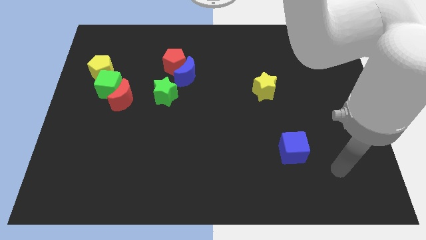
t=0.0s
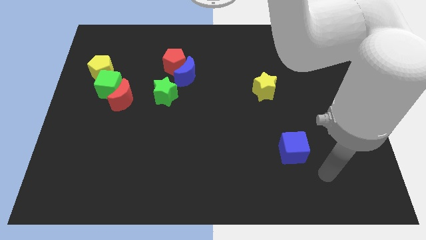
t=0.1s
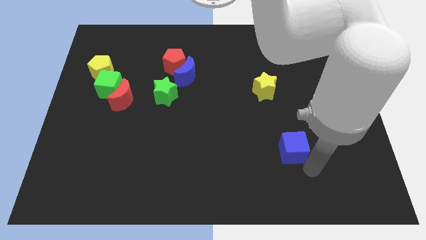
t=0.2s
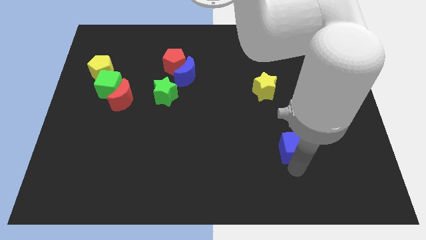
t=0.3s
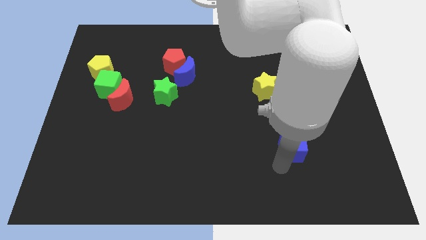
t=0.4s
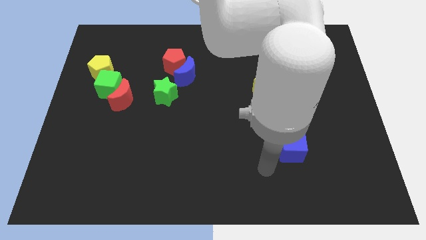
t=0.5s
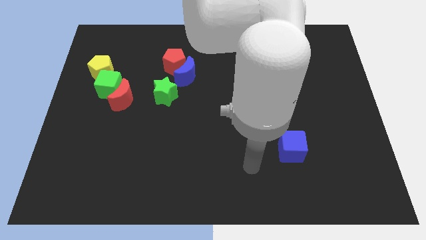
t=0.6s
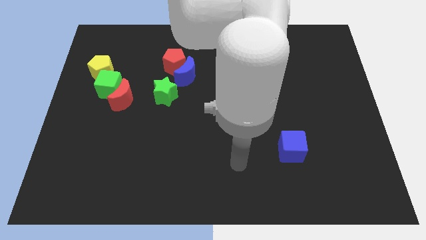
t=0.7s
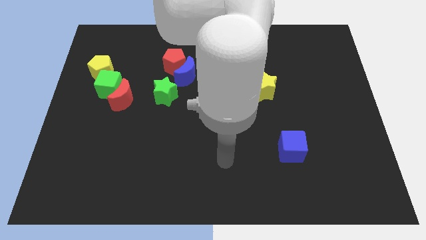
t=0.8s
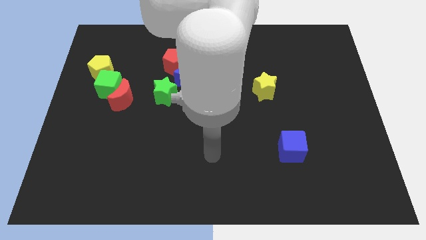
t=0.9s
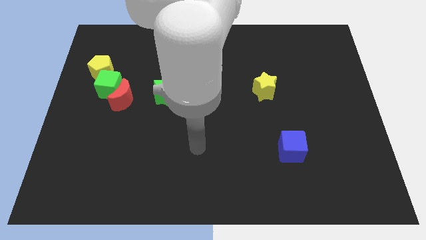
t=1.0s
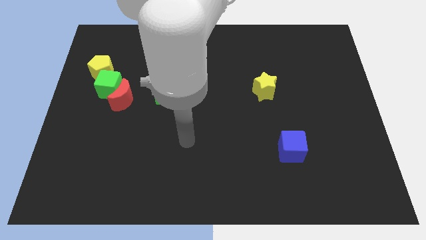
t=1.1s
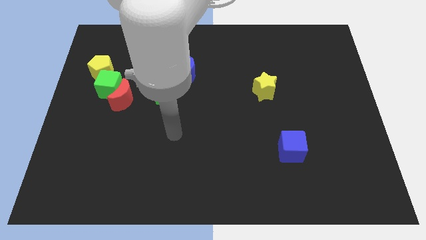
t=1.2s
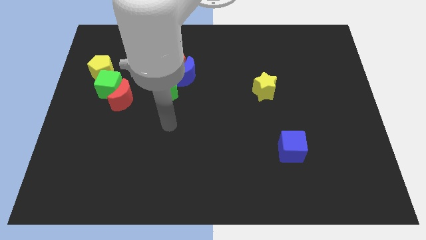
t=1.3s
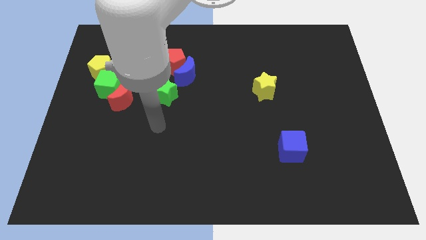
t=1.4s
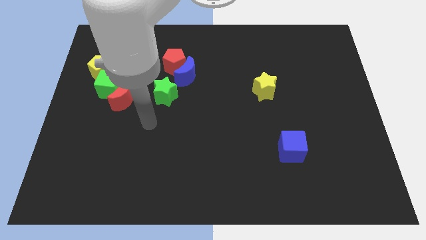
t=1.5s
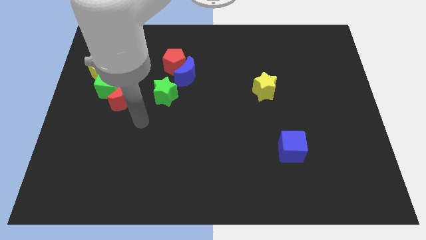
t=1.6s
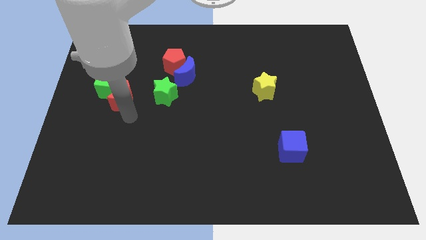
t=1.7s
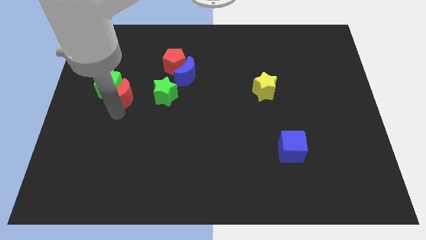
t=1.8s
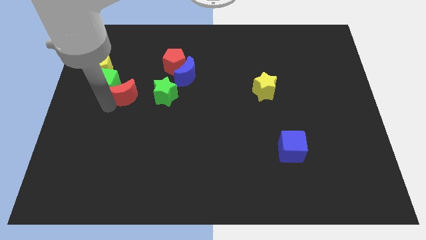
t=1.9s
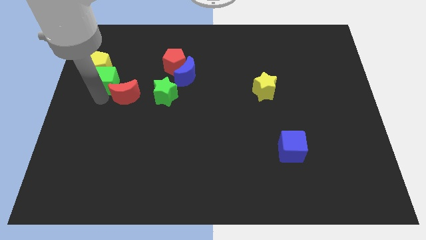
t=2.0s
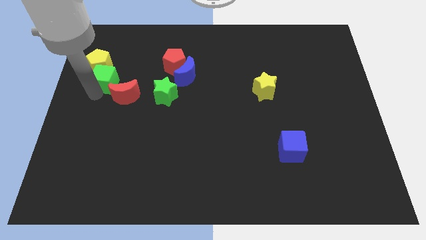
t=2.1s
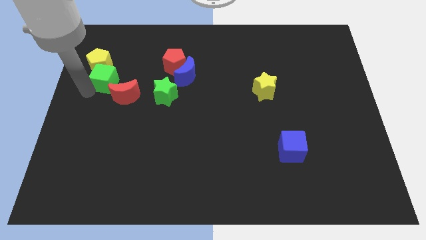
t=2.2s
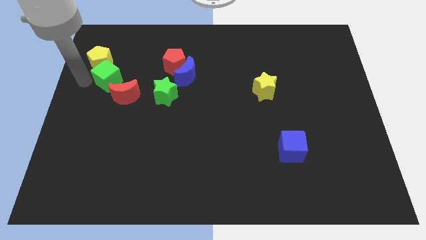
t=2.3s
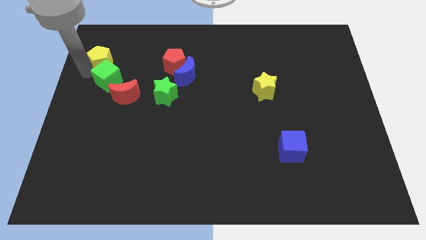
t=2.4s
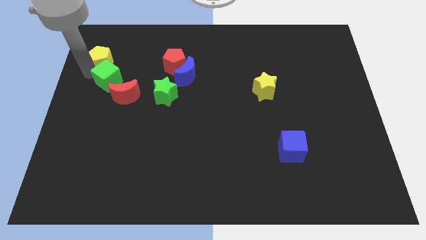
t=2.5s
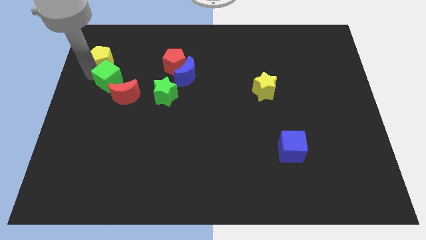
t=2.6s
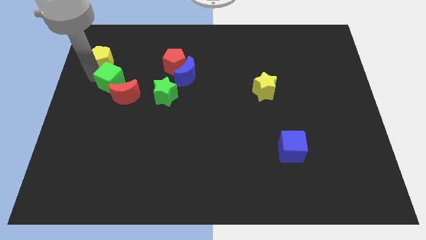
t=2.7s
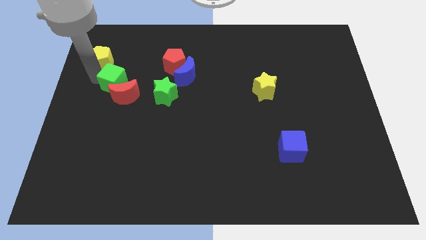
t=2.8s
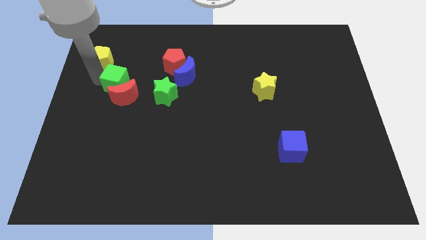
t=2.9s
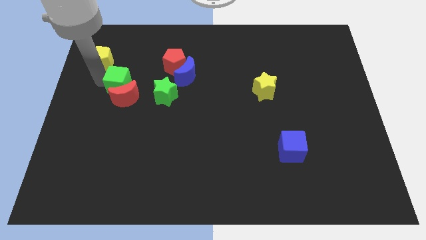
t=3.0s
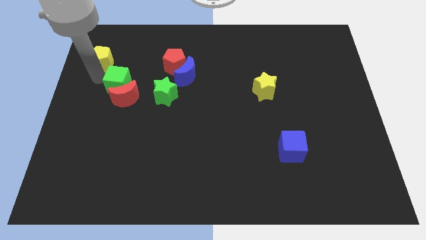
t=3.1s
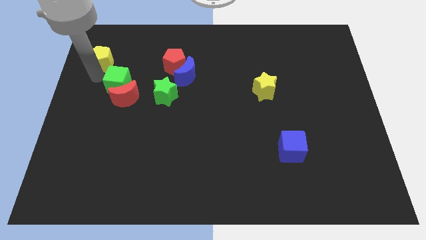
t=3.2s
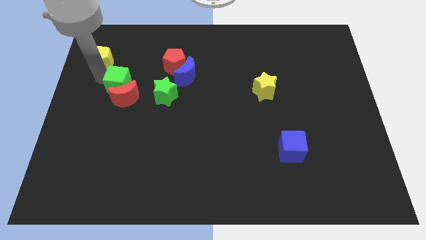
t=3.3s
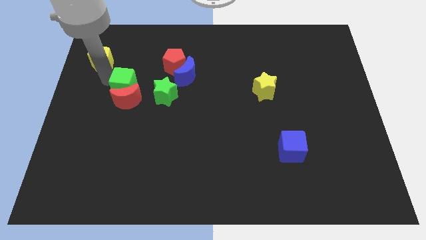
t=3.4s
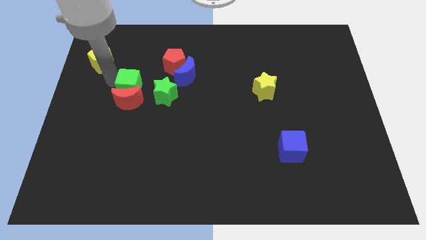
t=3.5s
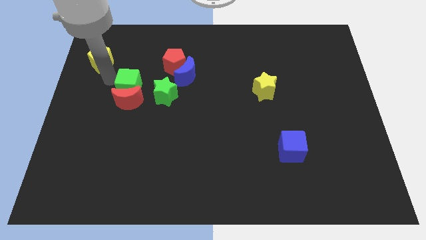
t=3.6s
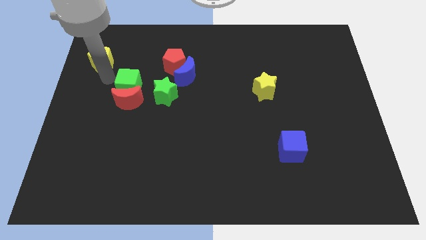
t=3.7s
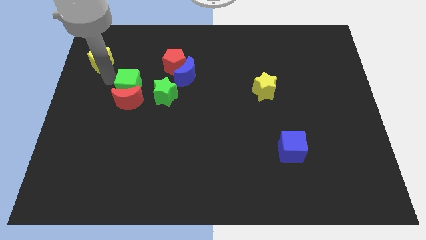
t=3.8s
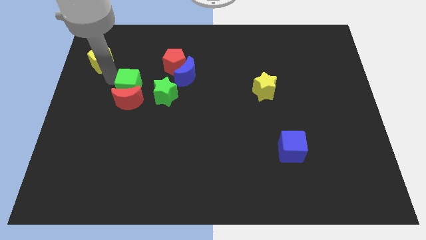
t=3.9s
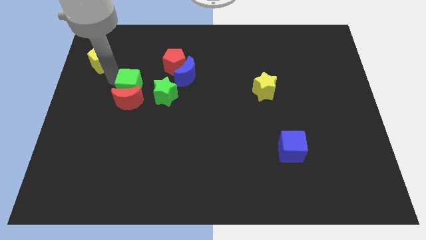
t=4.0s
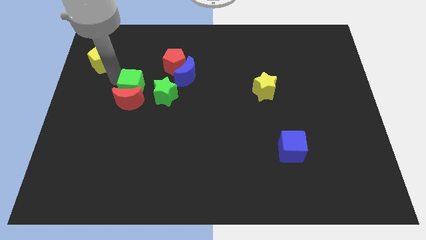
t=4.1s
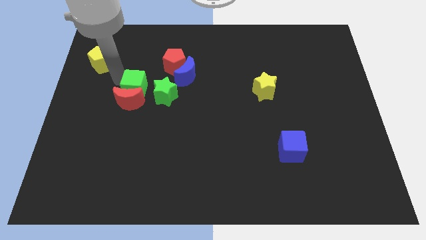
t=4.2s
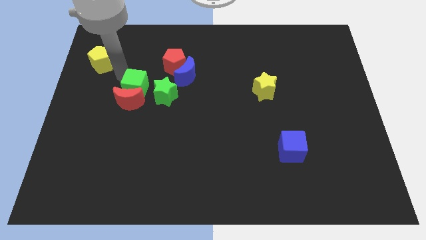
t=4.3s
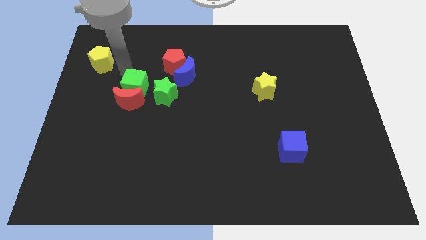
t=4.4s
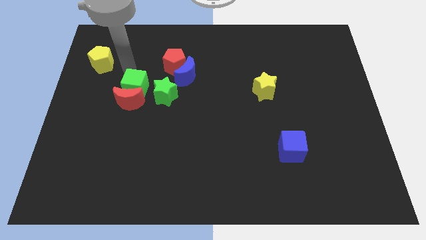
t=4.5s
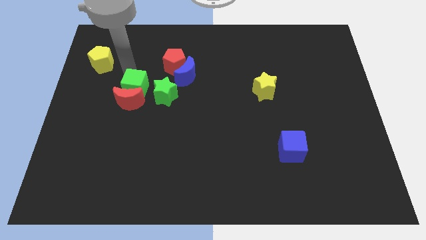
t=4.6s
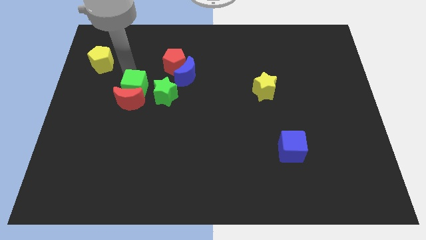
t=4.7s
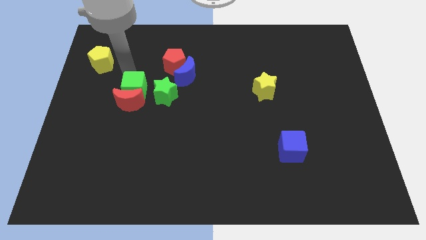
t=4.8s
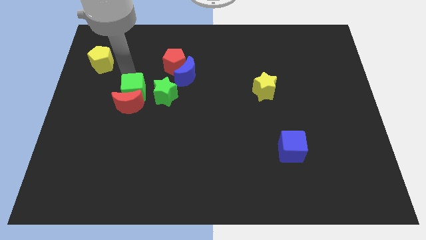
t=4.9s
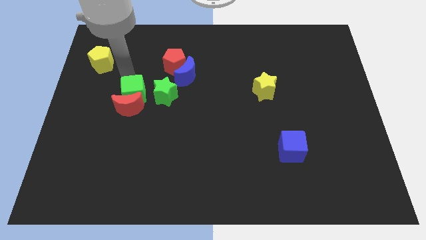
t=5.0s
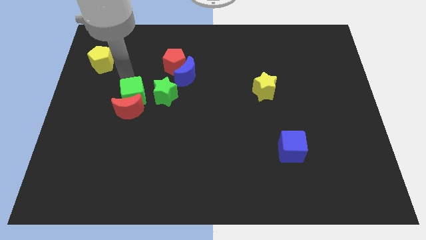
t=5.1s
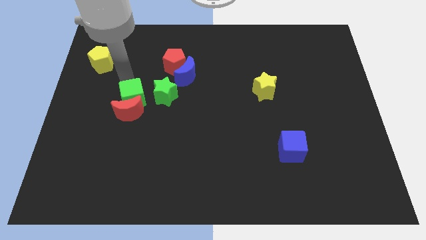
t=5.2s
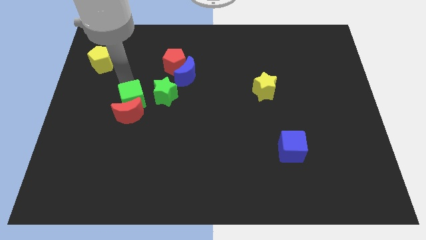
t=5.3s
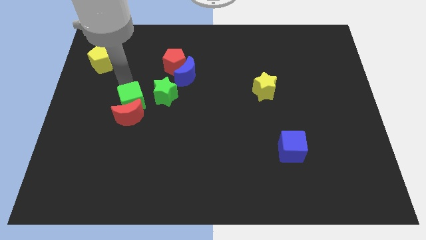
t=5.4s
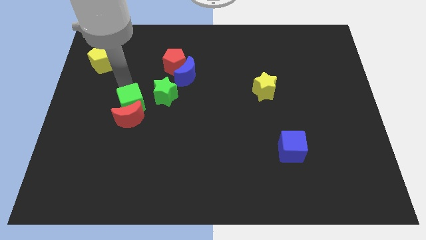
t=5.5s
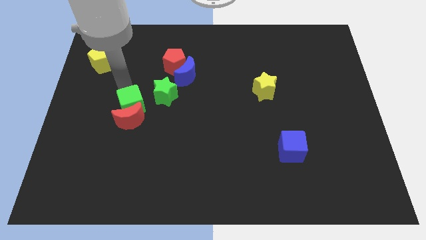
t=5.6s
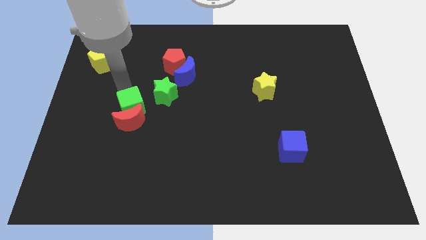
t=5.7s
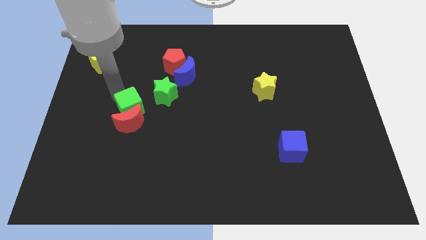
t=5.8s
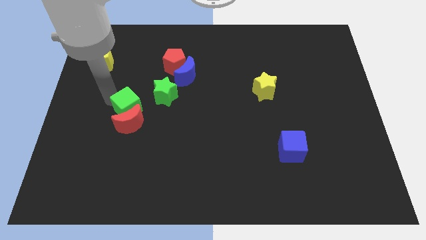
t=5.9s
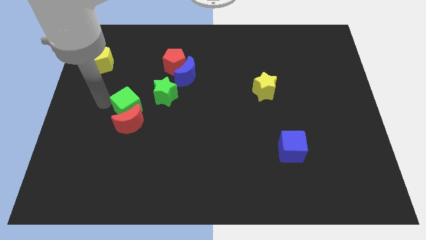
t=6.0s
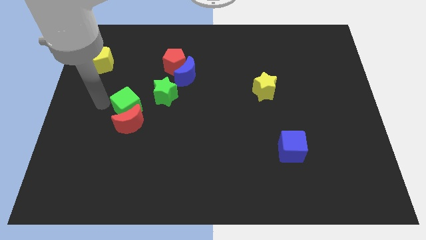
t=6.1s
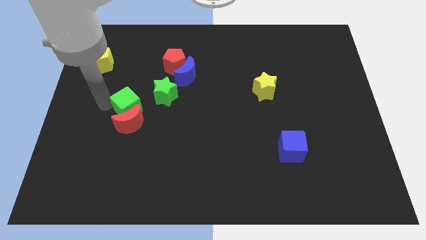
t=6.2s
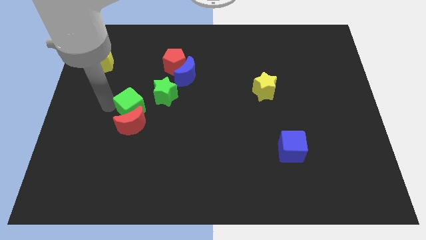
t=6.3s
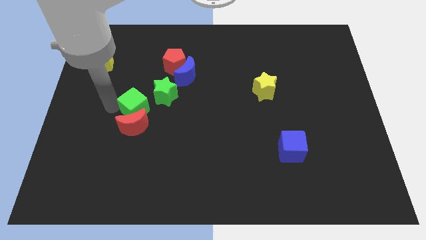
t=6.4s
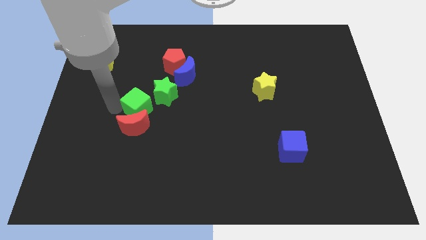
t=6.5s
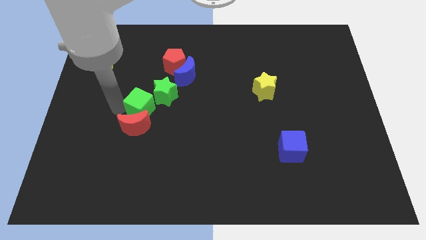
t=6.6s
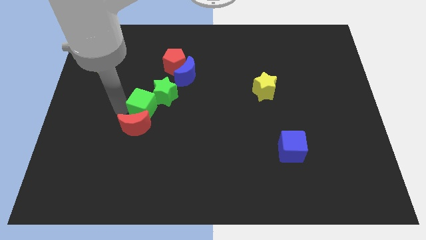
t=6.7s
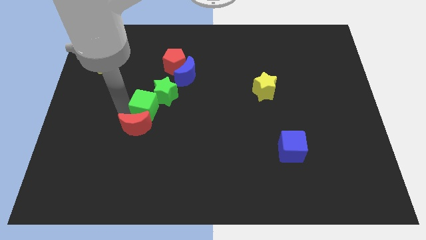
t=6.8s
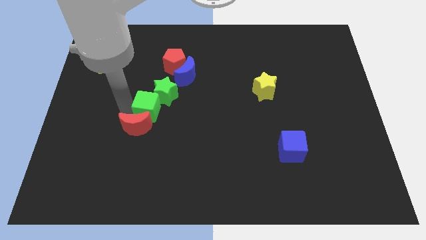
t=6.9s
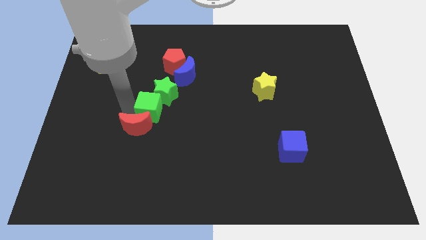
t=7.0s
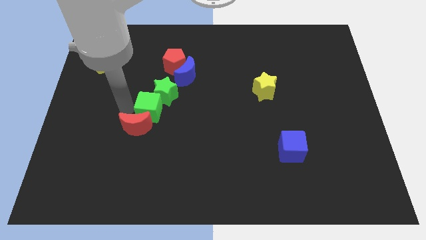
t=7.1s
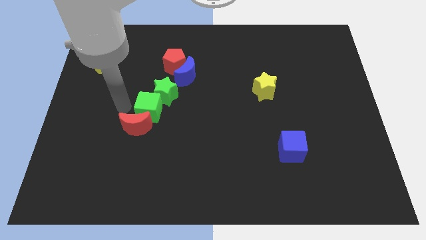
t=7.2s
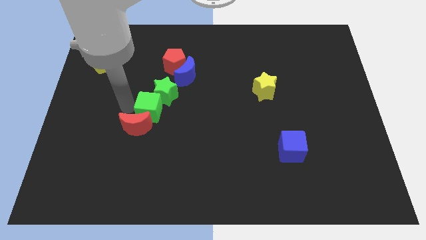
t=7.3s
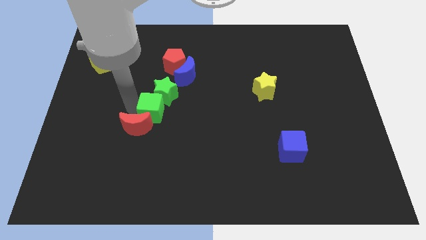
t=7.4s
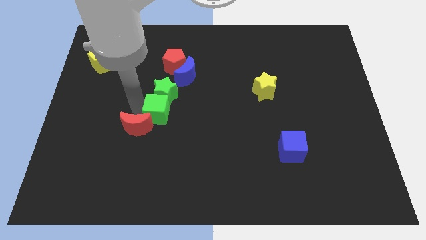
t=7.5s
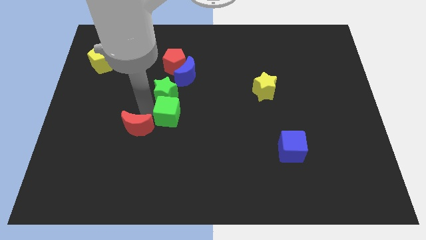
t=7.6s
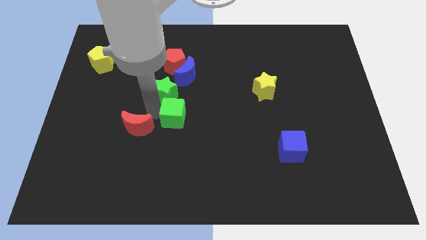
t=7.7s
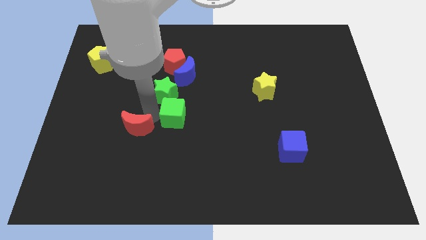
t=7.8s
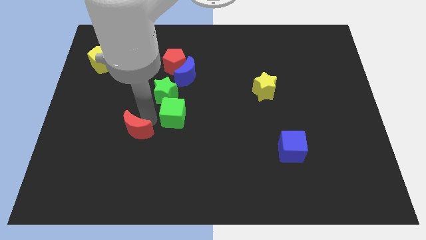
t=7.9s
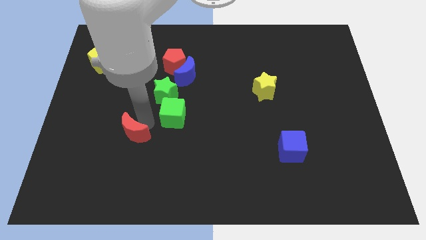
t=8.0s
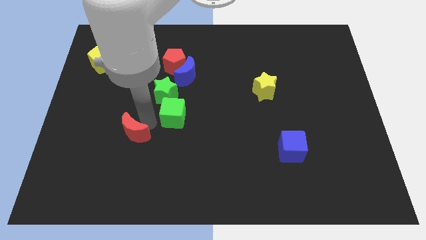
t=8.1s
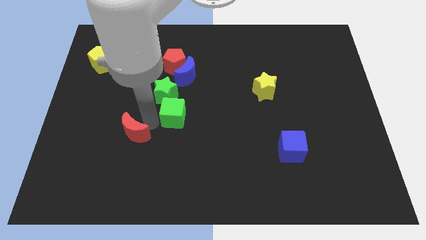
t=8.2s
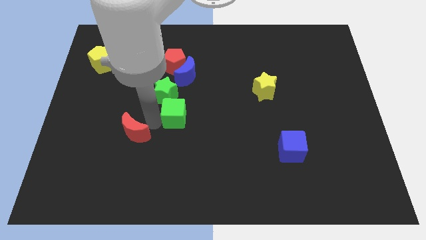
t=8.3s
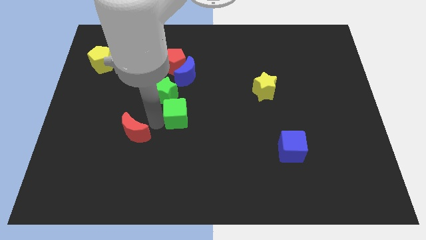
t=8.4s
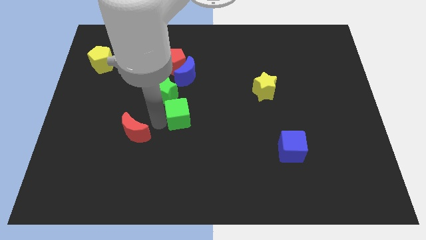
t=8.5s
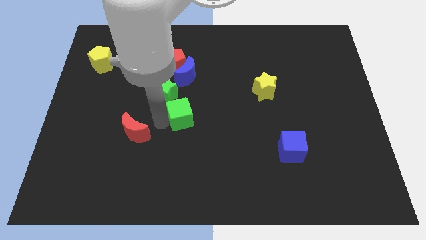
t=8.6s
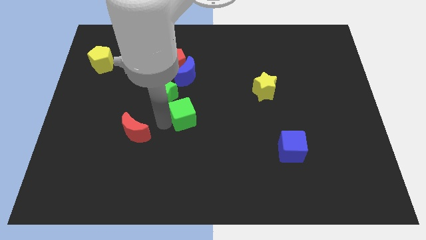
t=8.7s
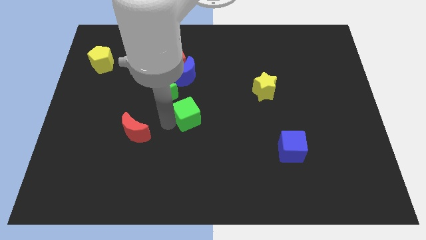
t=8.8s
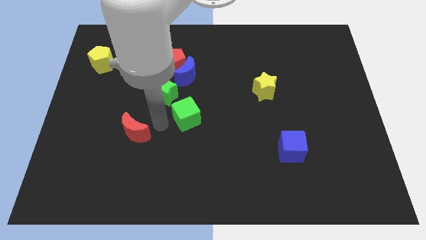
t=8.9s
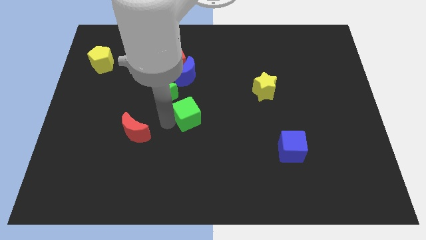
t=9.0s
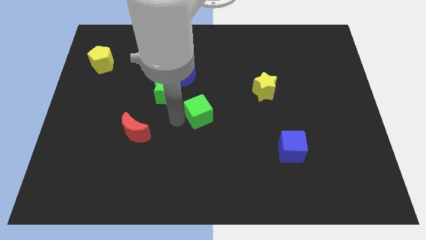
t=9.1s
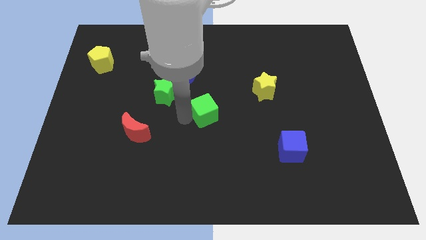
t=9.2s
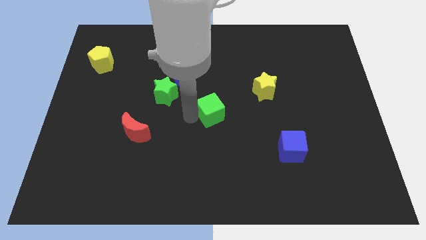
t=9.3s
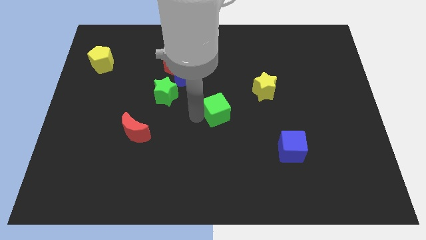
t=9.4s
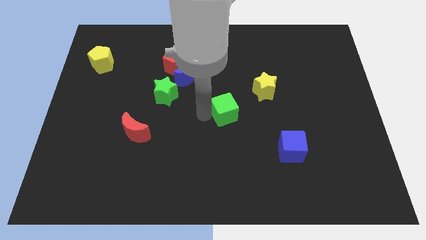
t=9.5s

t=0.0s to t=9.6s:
push the green cube to the bottom left of the yellow star
